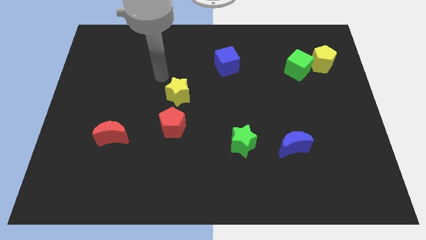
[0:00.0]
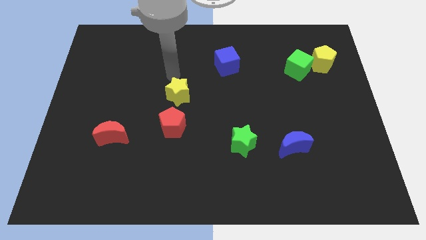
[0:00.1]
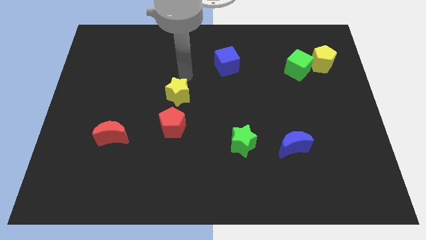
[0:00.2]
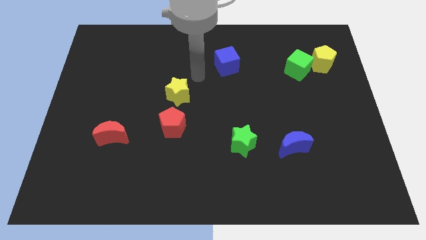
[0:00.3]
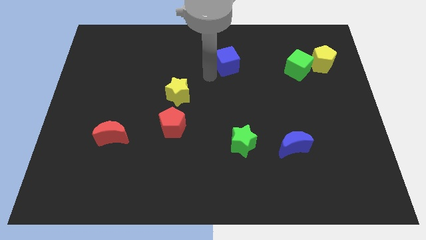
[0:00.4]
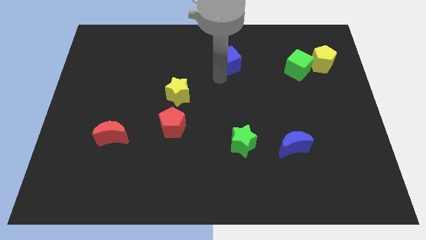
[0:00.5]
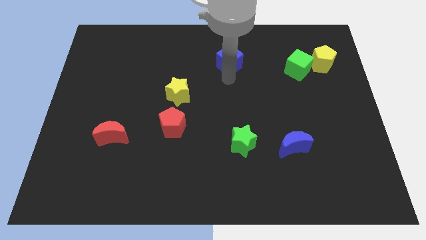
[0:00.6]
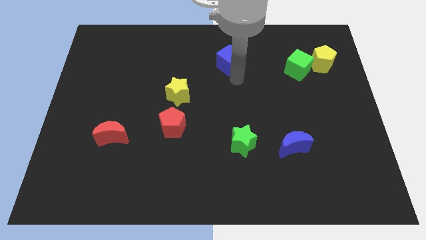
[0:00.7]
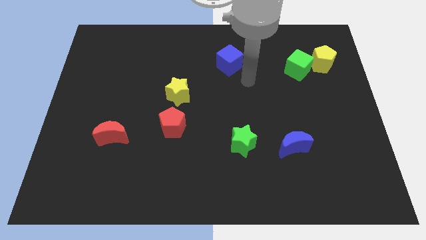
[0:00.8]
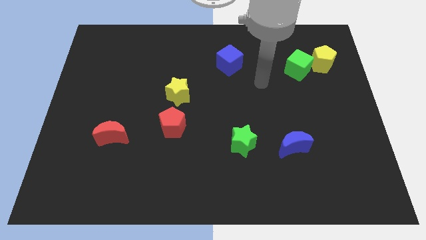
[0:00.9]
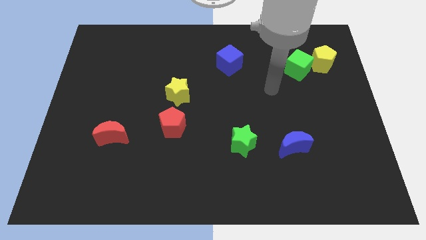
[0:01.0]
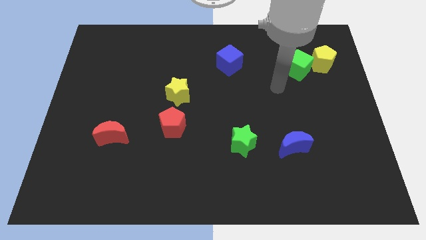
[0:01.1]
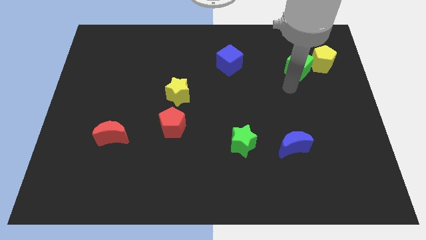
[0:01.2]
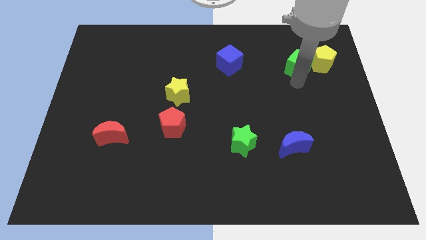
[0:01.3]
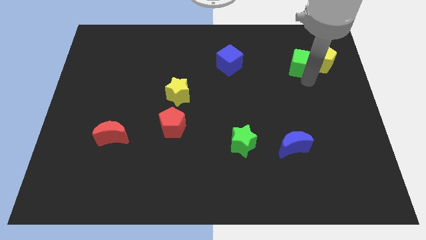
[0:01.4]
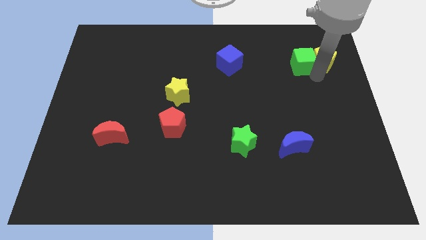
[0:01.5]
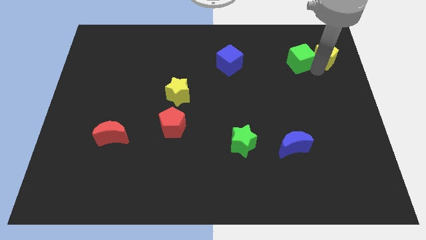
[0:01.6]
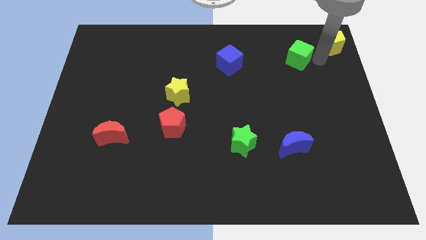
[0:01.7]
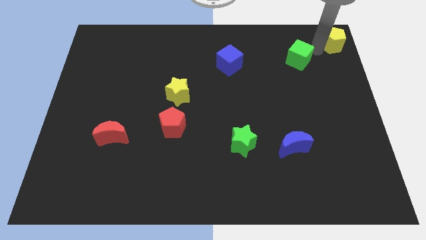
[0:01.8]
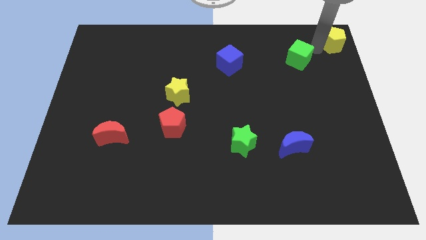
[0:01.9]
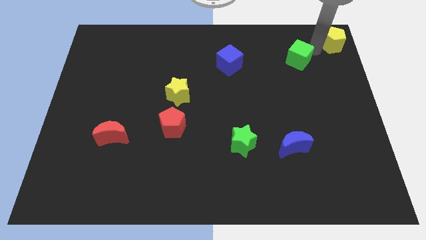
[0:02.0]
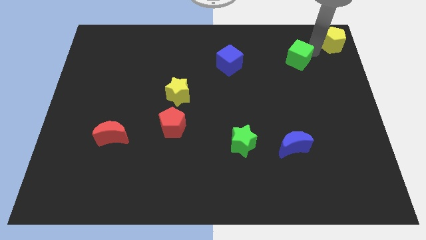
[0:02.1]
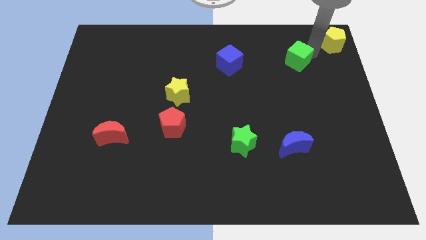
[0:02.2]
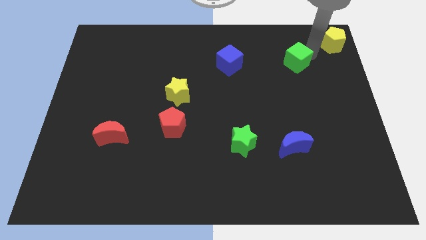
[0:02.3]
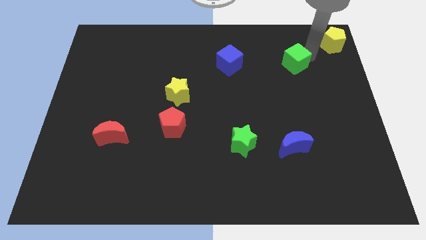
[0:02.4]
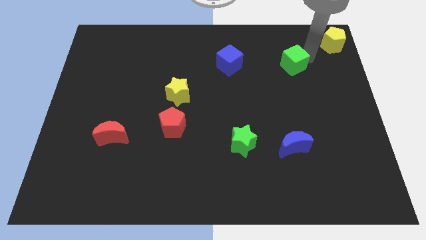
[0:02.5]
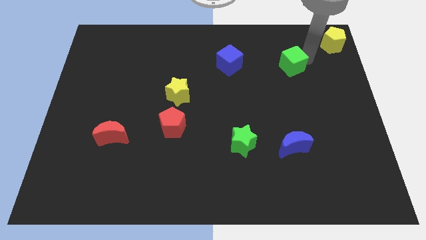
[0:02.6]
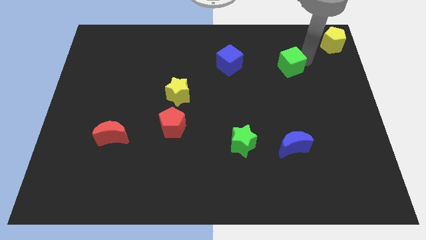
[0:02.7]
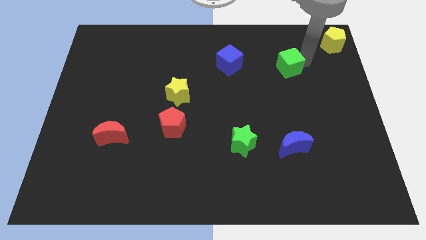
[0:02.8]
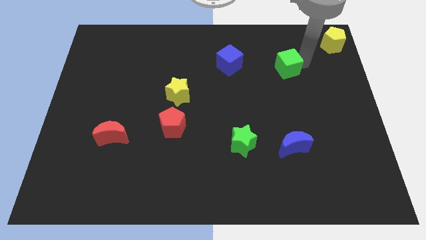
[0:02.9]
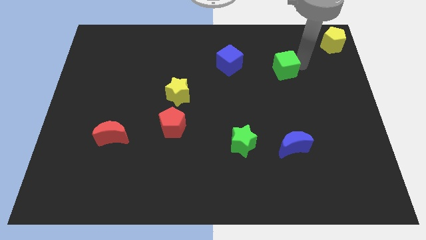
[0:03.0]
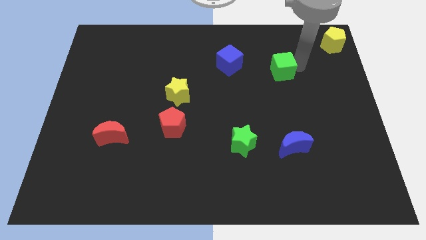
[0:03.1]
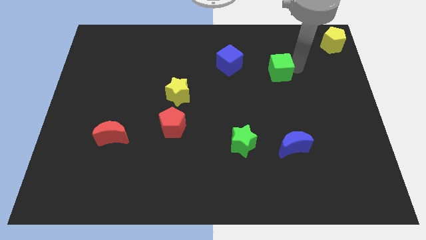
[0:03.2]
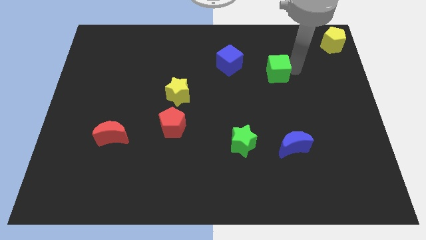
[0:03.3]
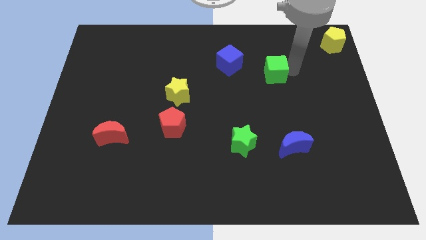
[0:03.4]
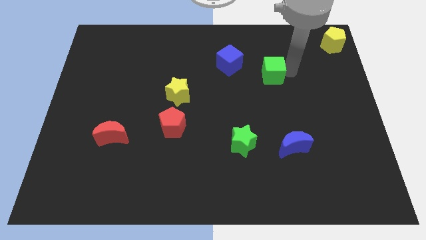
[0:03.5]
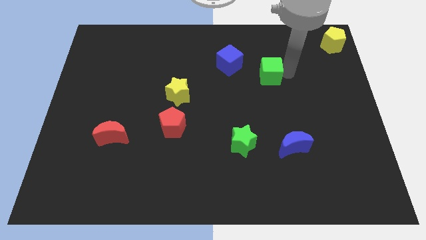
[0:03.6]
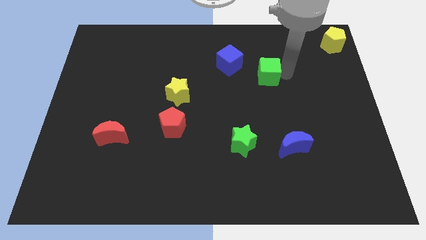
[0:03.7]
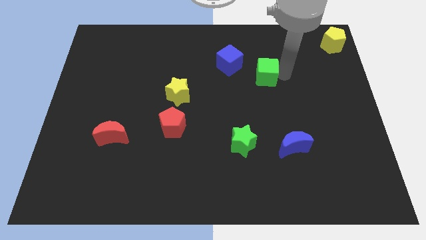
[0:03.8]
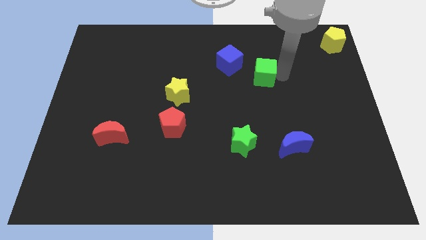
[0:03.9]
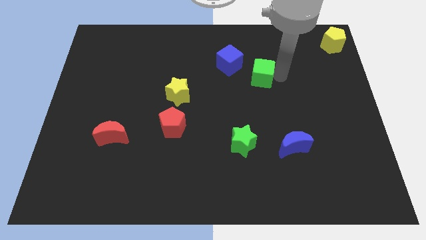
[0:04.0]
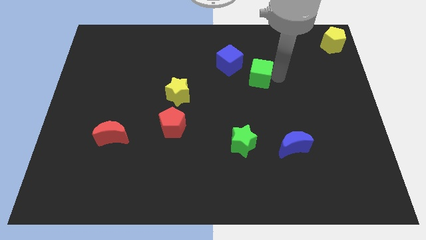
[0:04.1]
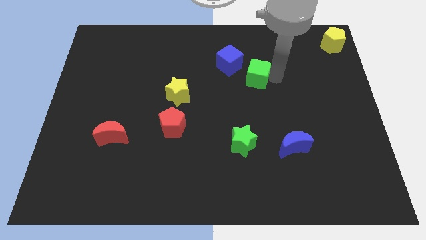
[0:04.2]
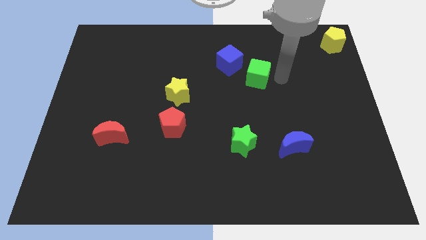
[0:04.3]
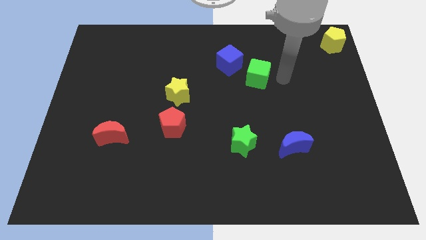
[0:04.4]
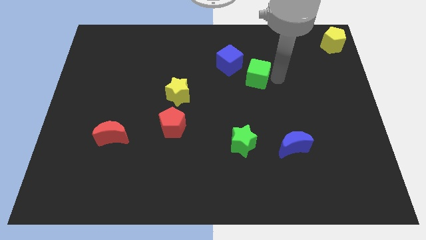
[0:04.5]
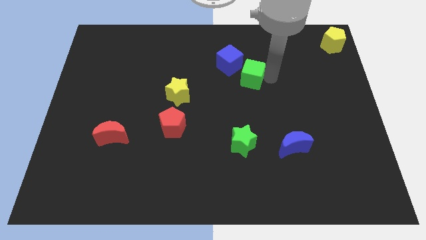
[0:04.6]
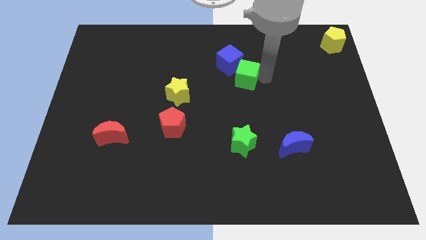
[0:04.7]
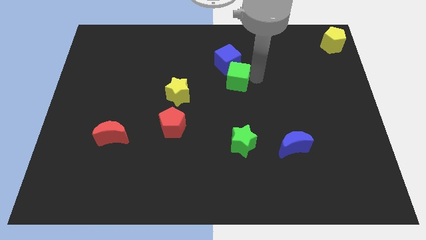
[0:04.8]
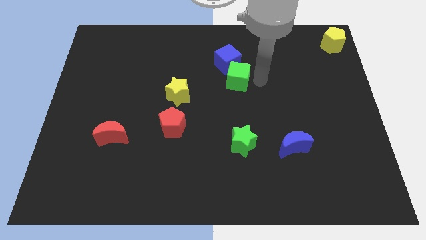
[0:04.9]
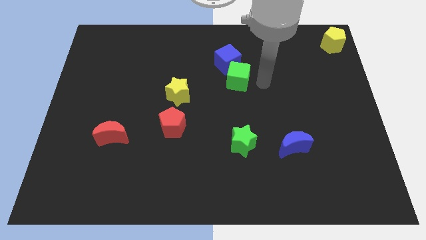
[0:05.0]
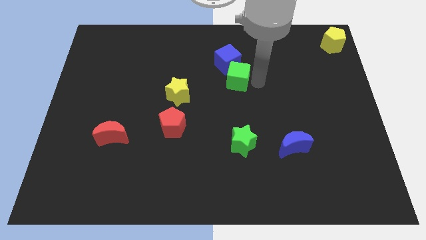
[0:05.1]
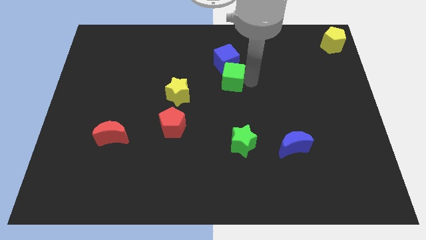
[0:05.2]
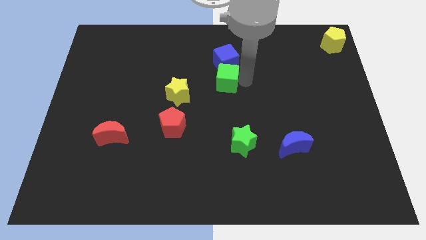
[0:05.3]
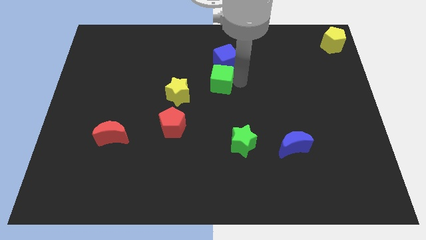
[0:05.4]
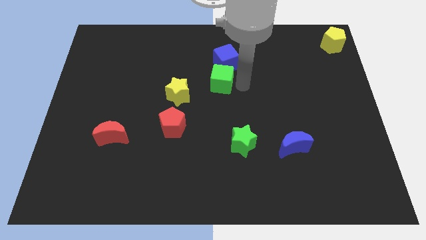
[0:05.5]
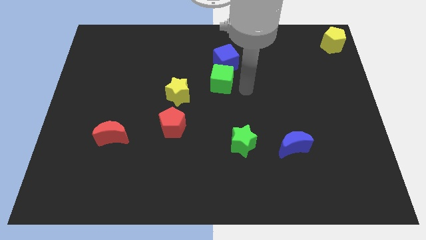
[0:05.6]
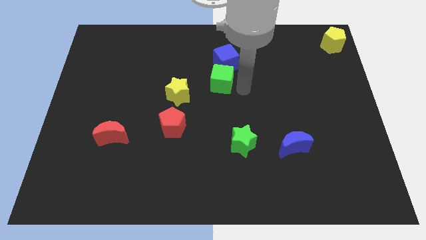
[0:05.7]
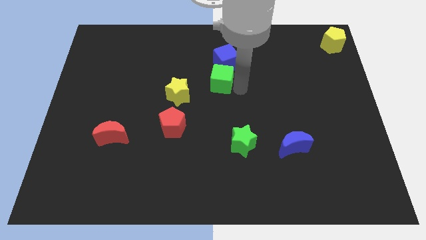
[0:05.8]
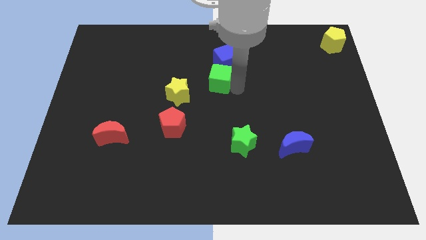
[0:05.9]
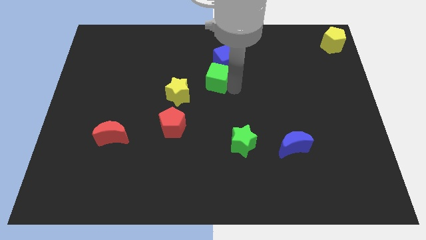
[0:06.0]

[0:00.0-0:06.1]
push the green cube to the left

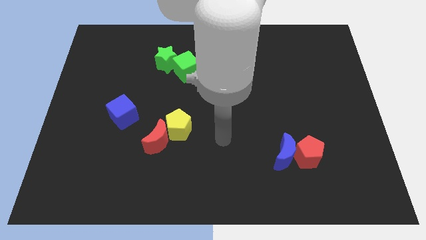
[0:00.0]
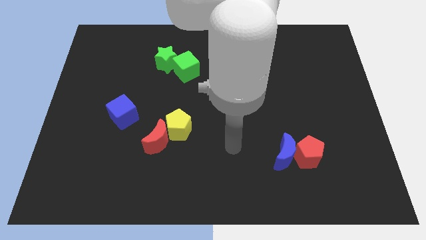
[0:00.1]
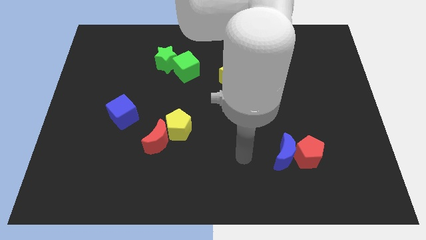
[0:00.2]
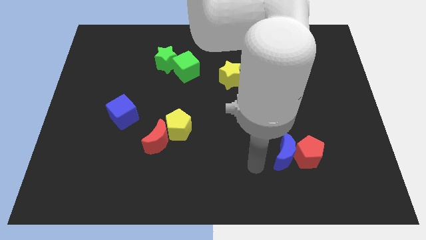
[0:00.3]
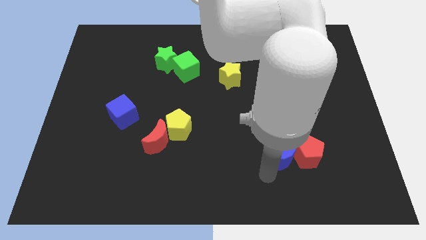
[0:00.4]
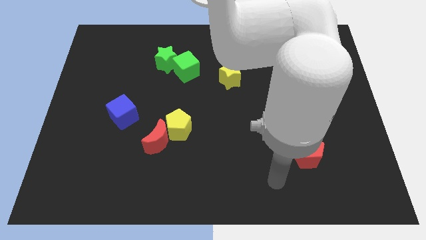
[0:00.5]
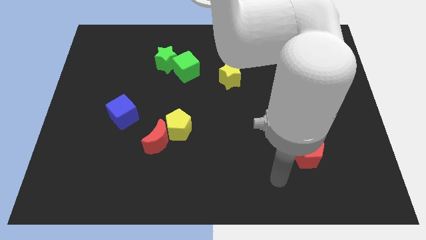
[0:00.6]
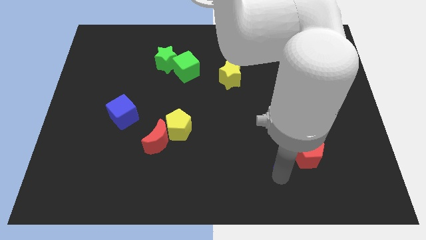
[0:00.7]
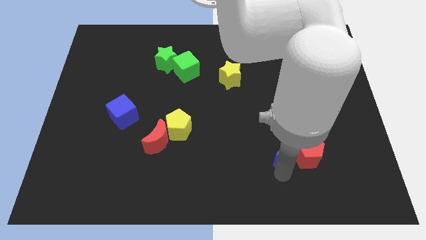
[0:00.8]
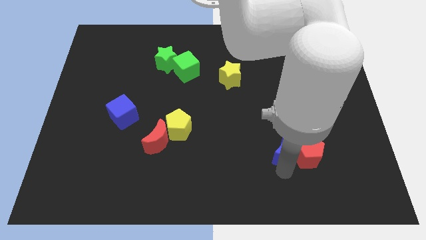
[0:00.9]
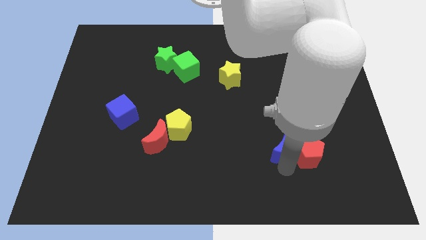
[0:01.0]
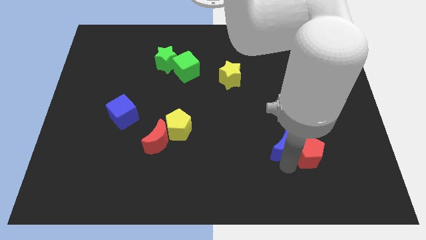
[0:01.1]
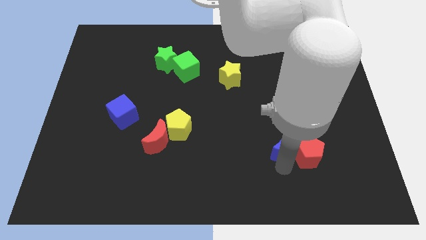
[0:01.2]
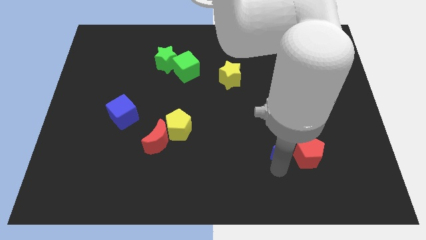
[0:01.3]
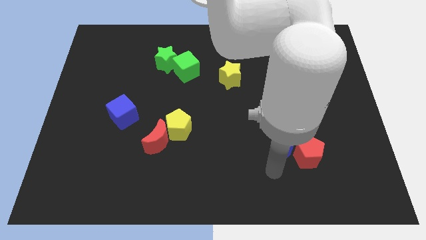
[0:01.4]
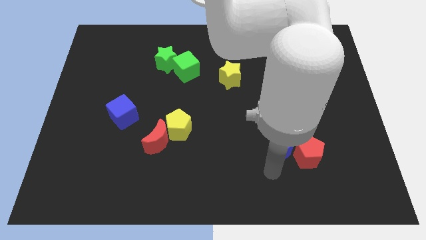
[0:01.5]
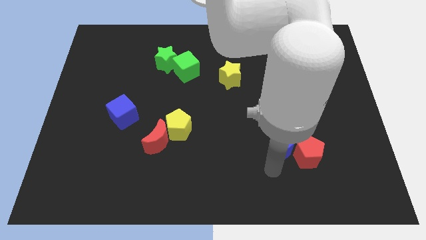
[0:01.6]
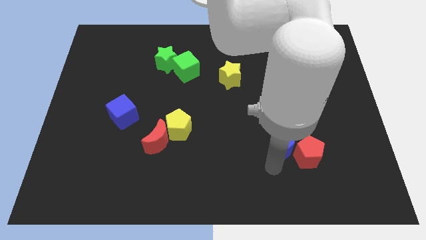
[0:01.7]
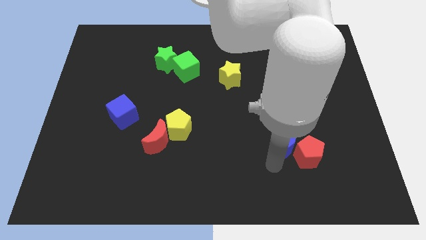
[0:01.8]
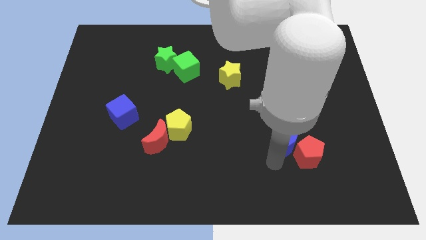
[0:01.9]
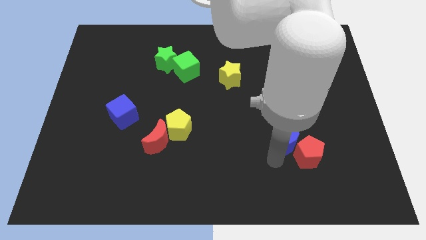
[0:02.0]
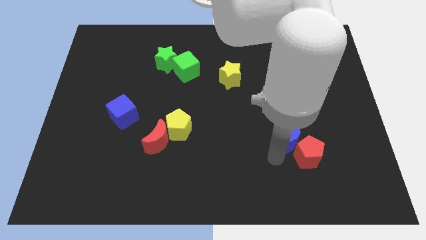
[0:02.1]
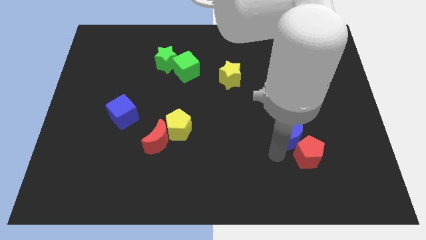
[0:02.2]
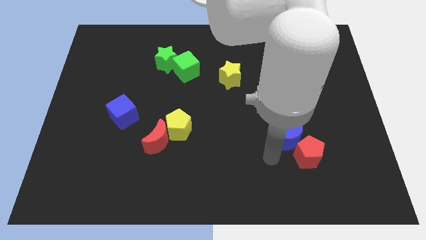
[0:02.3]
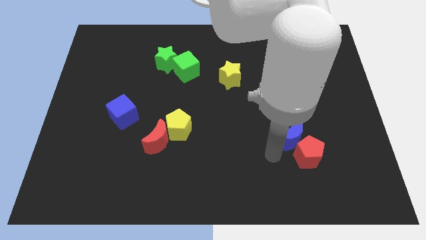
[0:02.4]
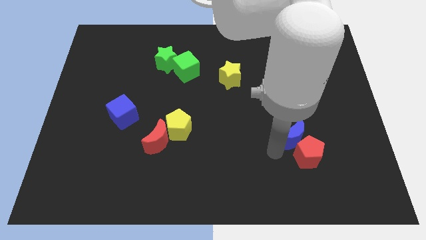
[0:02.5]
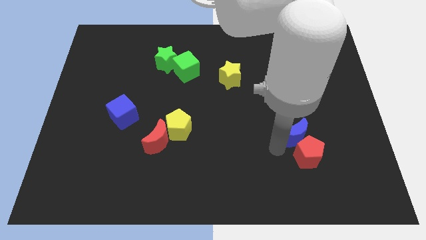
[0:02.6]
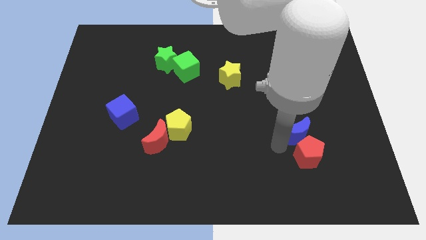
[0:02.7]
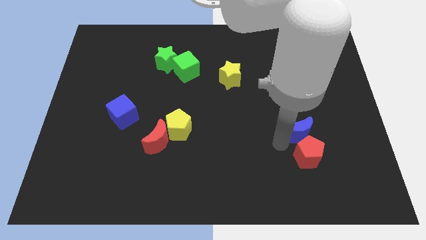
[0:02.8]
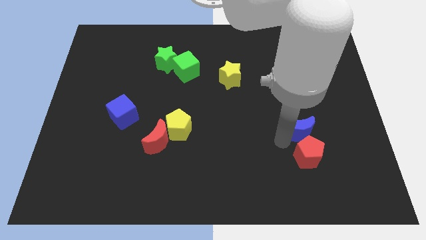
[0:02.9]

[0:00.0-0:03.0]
push the blue moon upwards and then right a little bit
